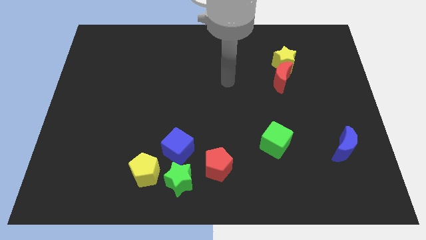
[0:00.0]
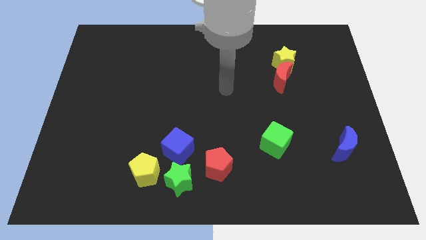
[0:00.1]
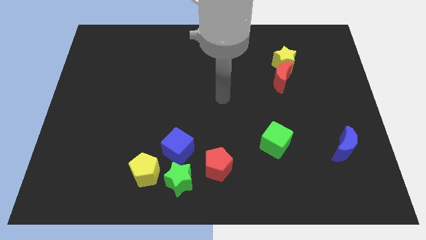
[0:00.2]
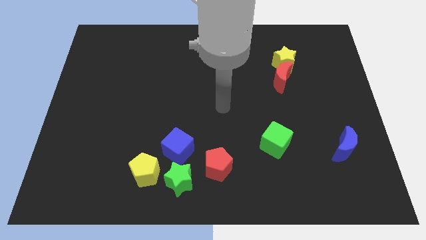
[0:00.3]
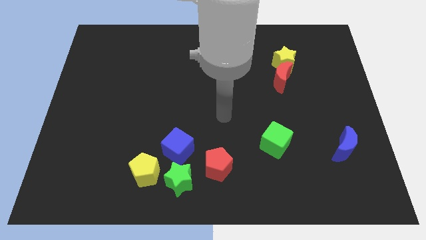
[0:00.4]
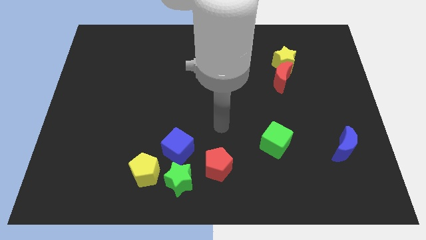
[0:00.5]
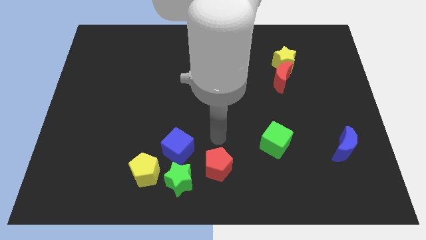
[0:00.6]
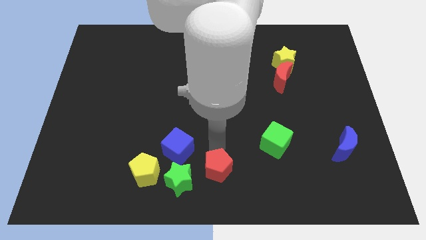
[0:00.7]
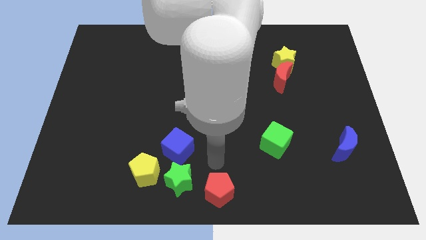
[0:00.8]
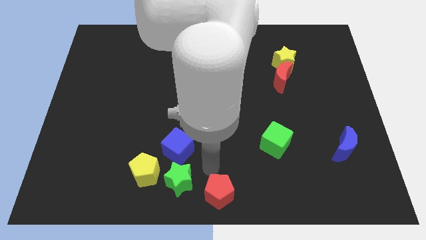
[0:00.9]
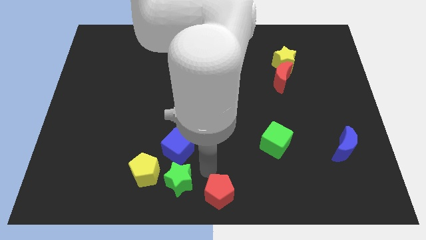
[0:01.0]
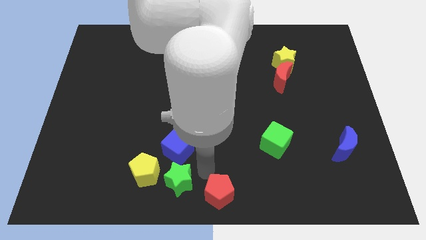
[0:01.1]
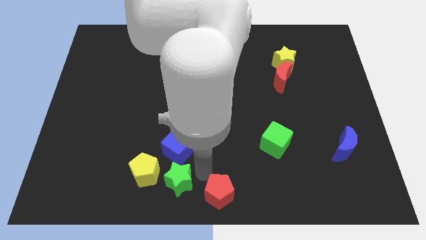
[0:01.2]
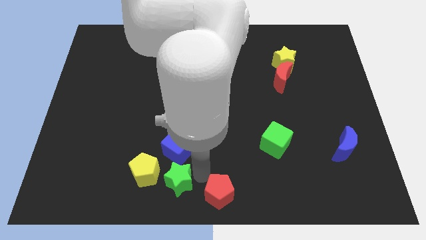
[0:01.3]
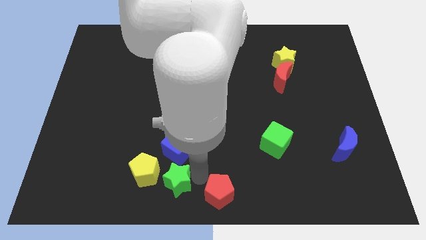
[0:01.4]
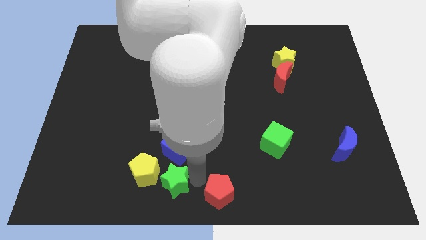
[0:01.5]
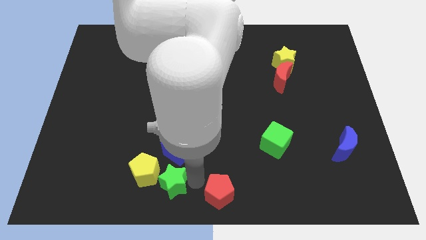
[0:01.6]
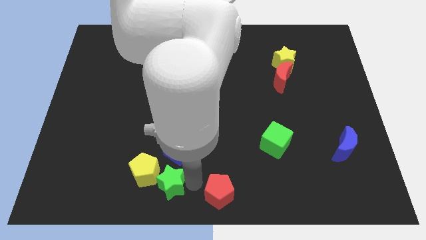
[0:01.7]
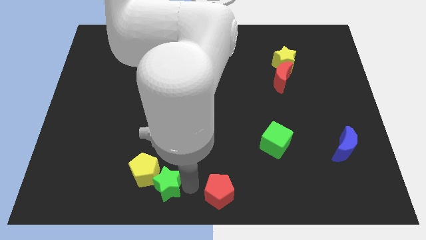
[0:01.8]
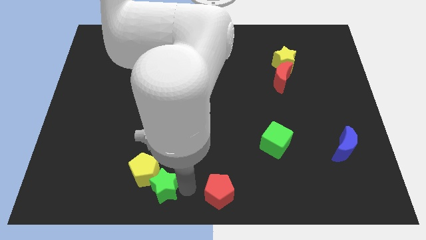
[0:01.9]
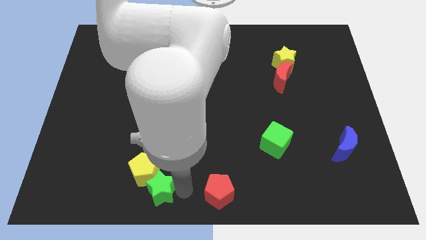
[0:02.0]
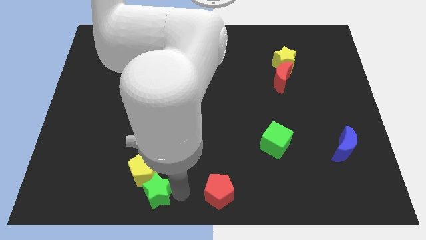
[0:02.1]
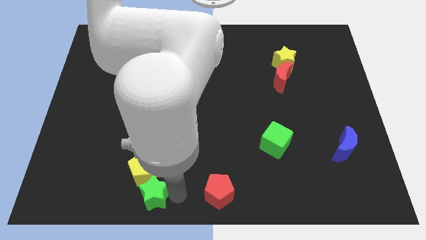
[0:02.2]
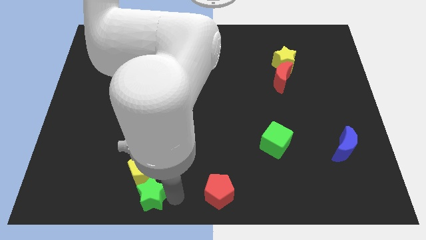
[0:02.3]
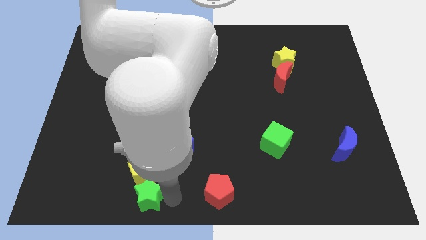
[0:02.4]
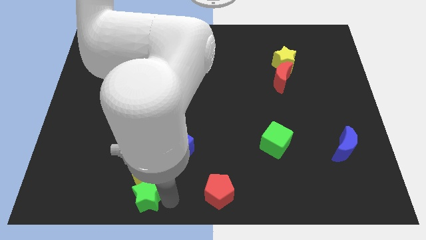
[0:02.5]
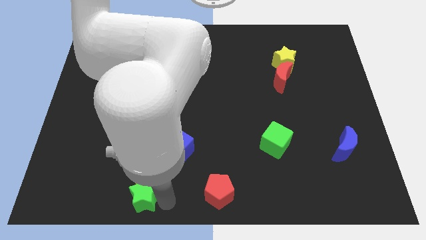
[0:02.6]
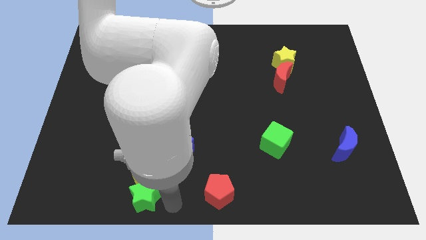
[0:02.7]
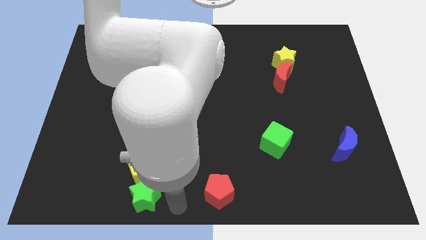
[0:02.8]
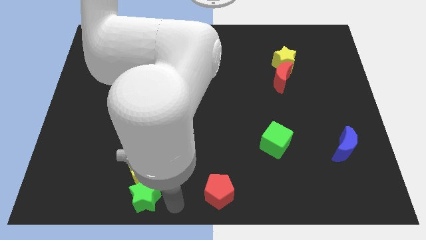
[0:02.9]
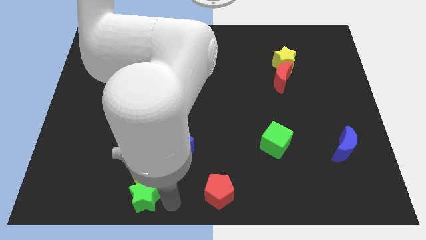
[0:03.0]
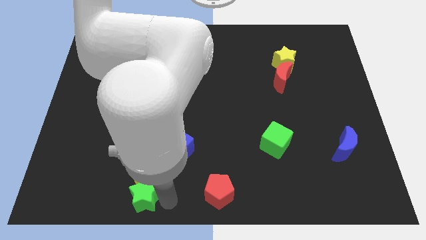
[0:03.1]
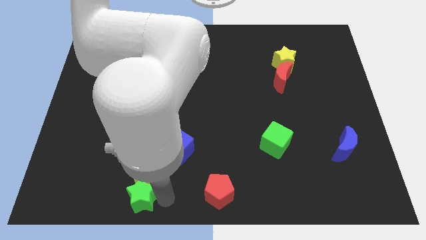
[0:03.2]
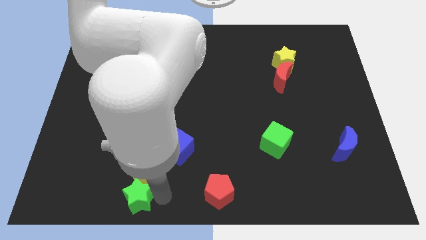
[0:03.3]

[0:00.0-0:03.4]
push the green star somewhat left

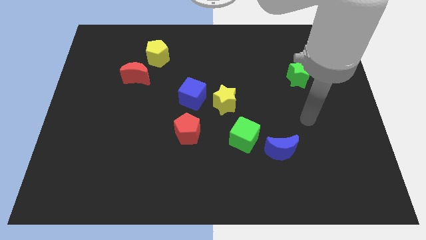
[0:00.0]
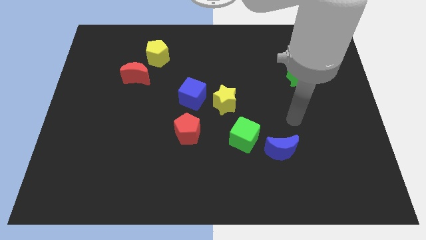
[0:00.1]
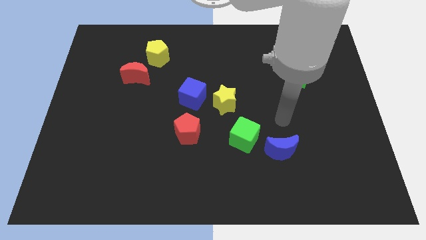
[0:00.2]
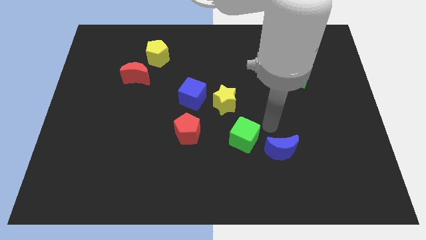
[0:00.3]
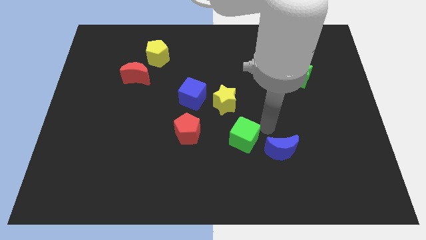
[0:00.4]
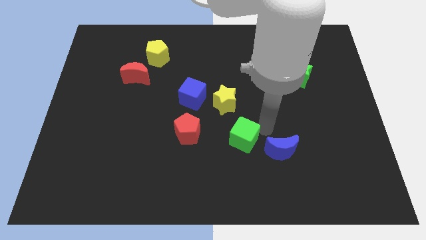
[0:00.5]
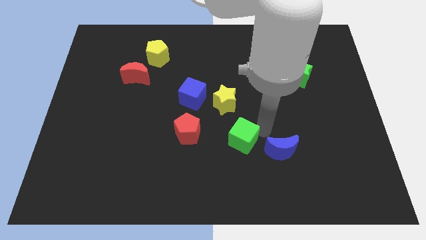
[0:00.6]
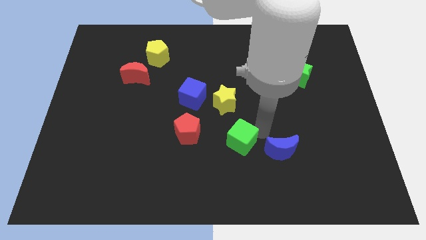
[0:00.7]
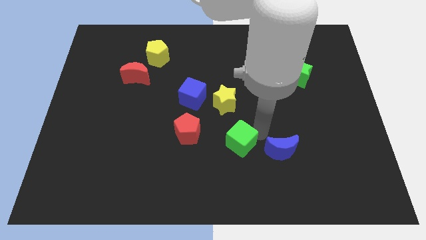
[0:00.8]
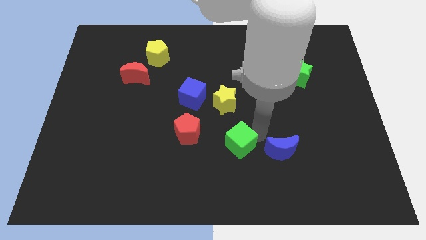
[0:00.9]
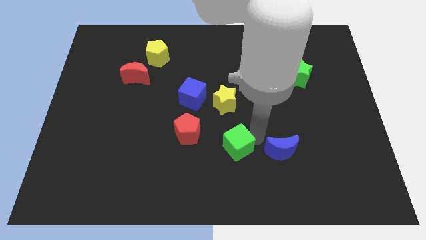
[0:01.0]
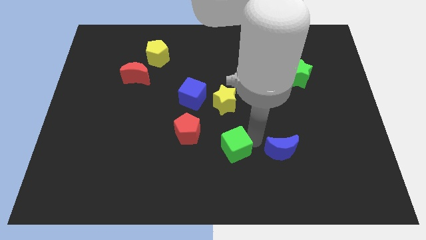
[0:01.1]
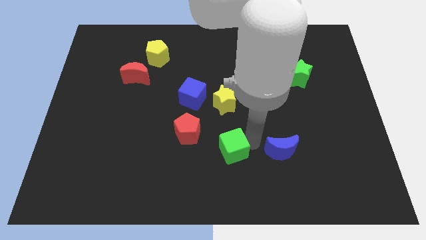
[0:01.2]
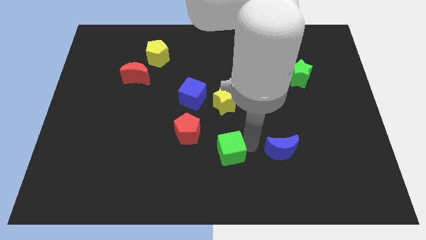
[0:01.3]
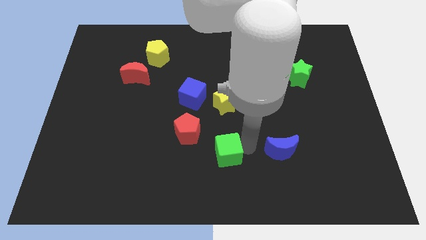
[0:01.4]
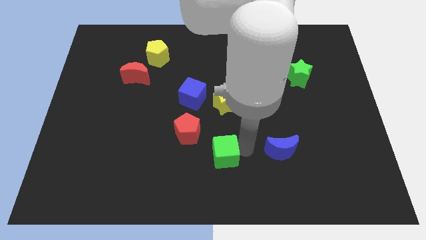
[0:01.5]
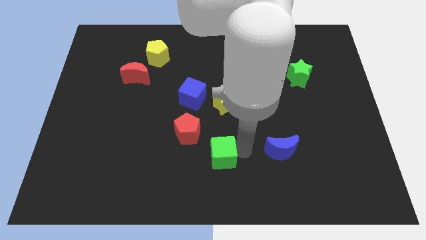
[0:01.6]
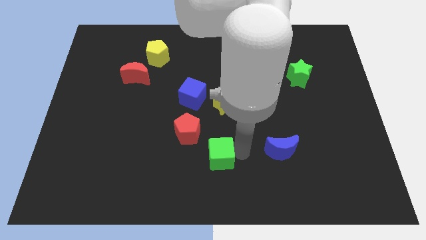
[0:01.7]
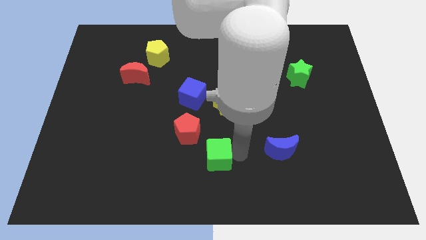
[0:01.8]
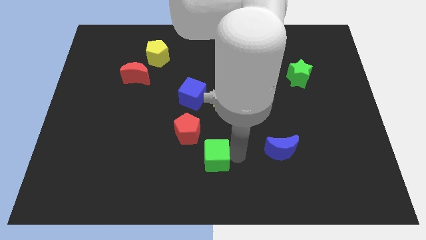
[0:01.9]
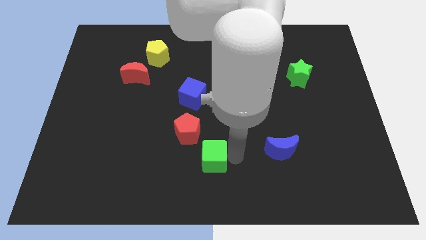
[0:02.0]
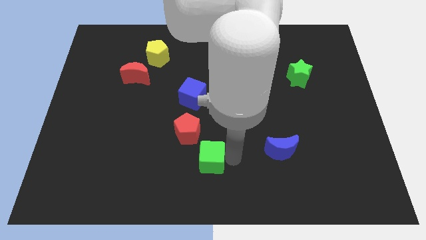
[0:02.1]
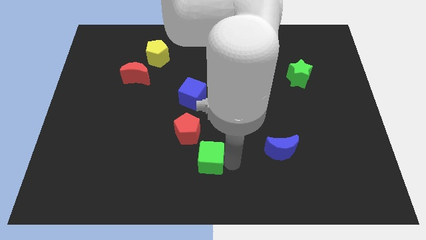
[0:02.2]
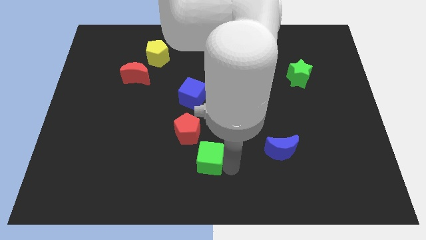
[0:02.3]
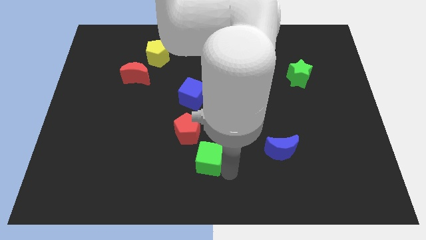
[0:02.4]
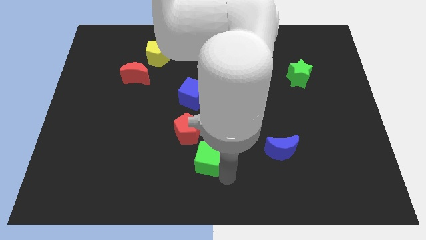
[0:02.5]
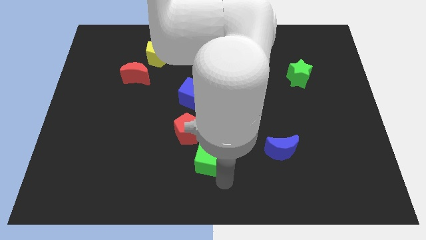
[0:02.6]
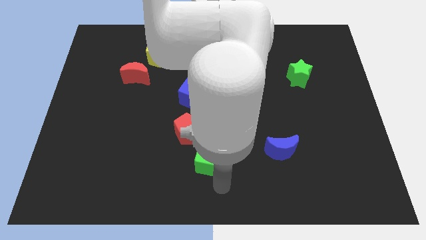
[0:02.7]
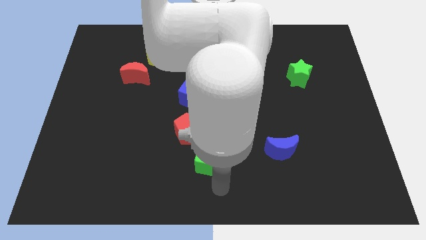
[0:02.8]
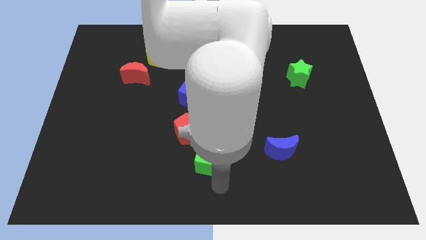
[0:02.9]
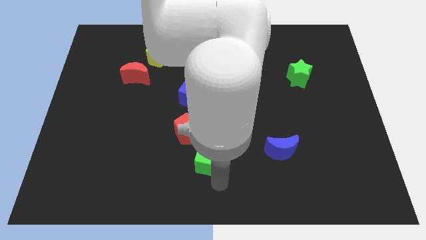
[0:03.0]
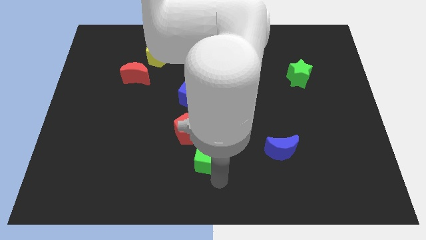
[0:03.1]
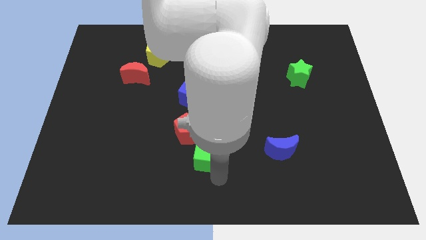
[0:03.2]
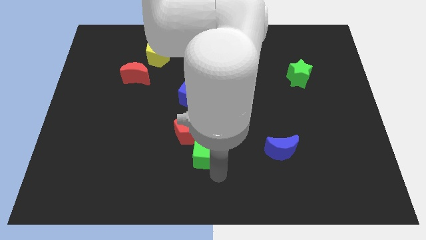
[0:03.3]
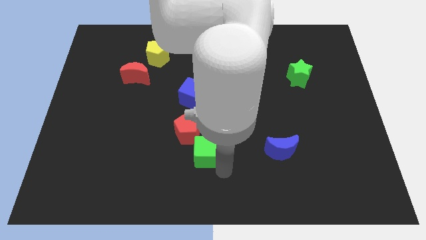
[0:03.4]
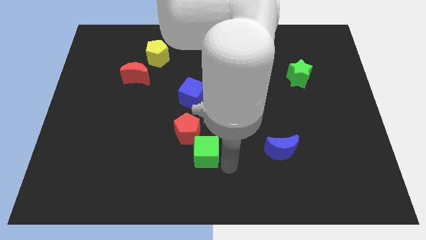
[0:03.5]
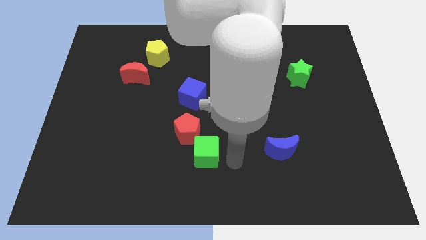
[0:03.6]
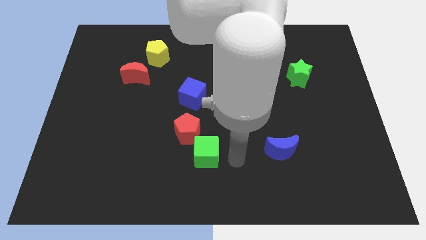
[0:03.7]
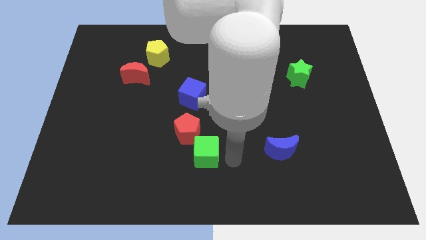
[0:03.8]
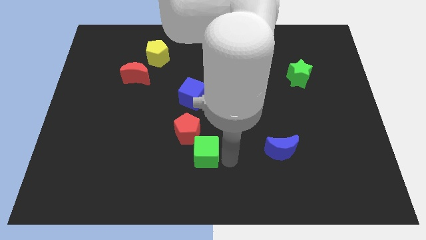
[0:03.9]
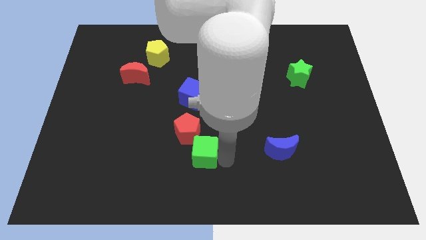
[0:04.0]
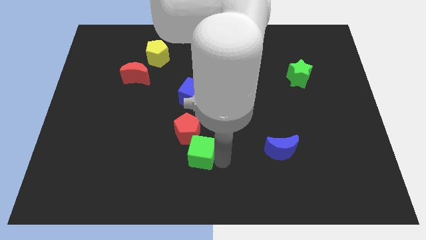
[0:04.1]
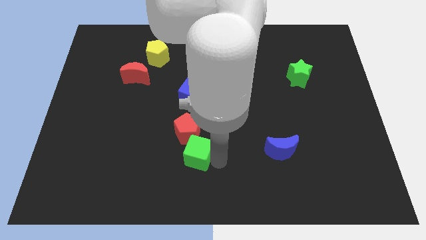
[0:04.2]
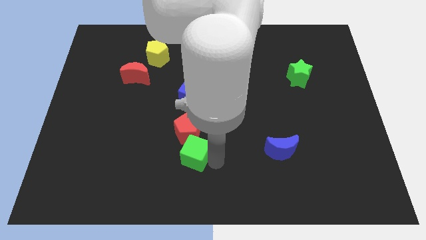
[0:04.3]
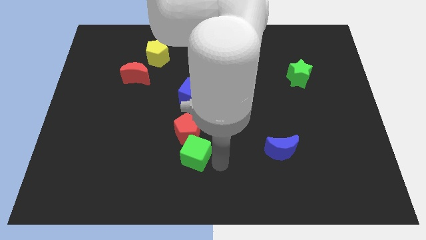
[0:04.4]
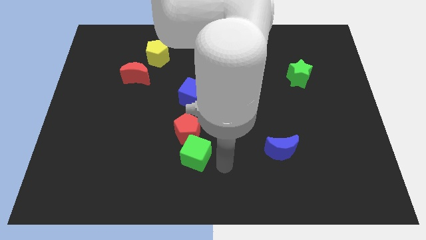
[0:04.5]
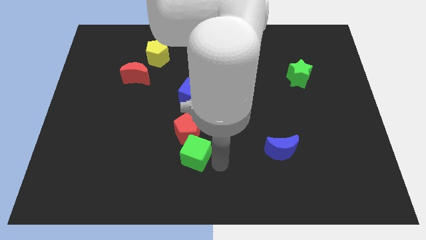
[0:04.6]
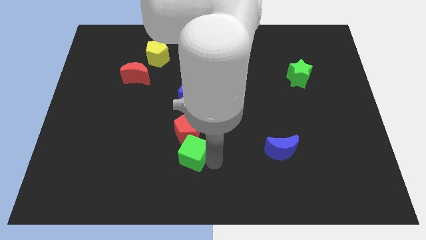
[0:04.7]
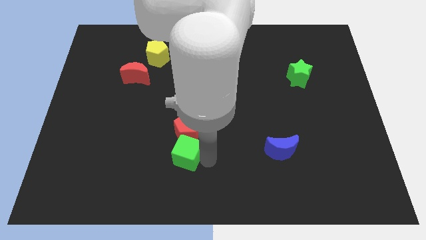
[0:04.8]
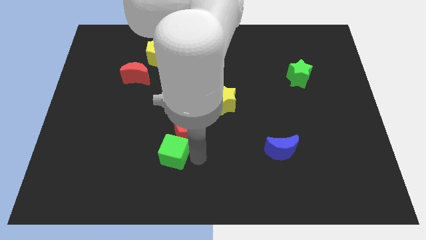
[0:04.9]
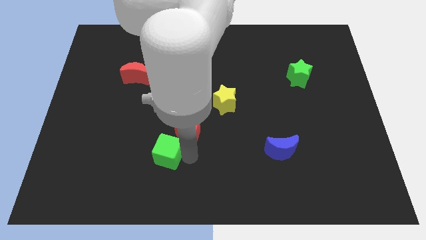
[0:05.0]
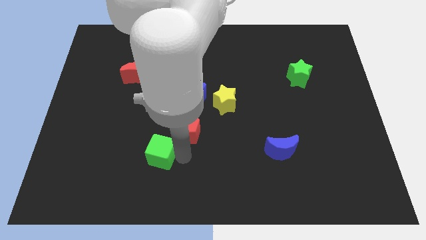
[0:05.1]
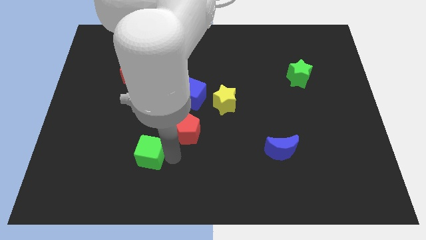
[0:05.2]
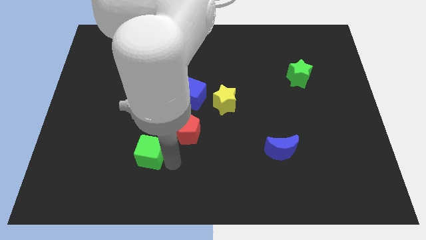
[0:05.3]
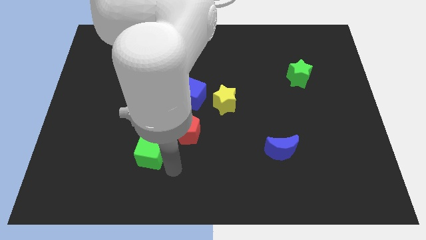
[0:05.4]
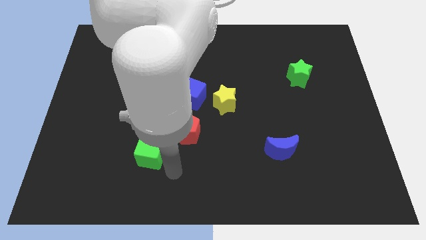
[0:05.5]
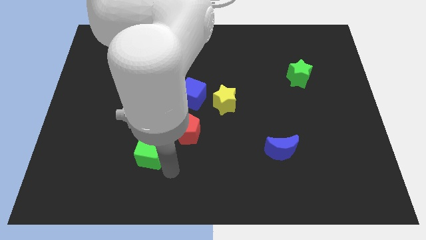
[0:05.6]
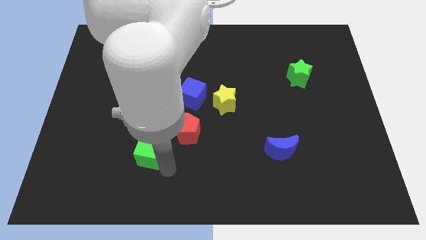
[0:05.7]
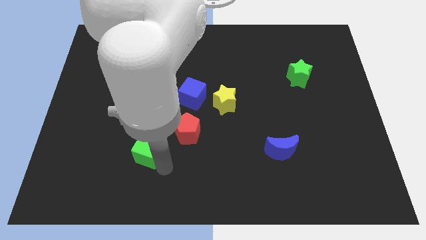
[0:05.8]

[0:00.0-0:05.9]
slide the green cube to the left
